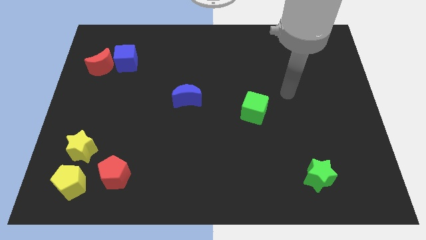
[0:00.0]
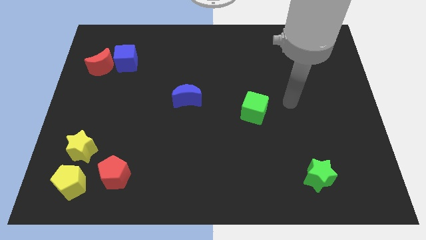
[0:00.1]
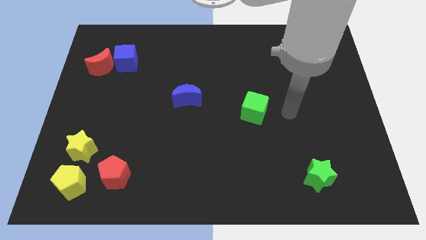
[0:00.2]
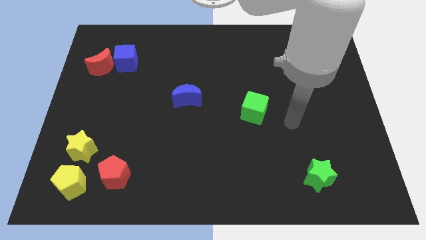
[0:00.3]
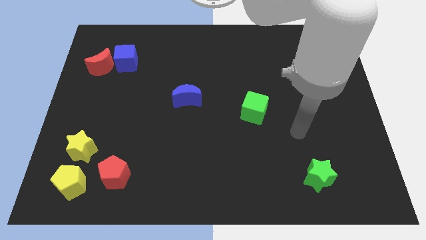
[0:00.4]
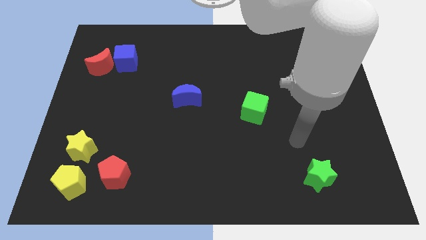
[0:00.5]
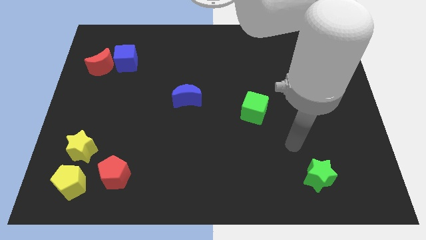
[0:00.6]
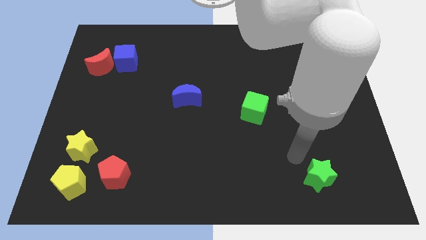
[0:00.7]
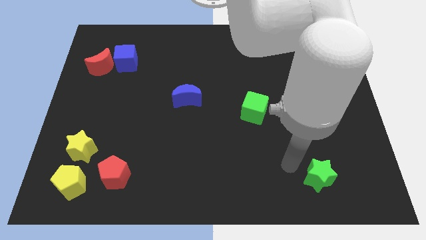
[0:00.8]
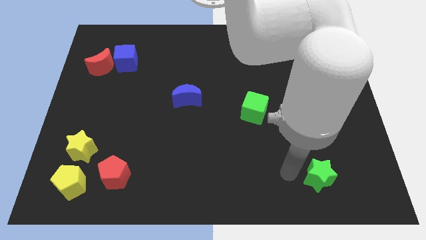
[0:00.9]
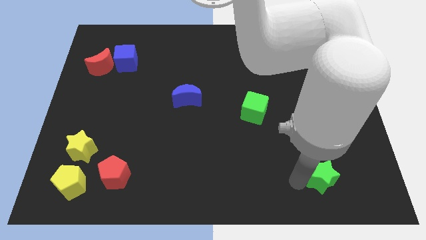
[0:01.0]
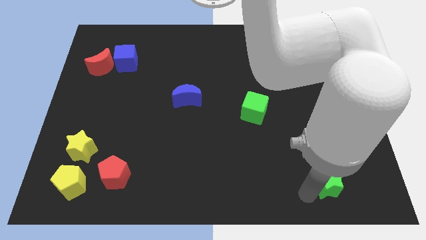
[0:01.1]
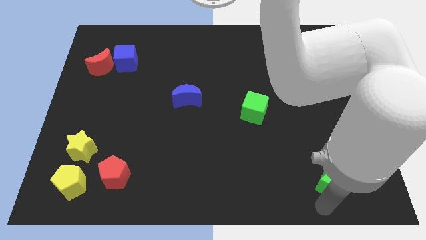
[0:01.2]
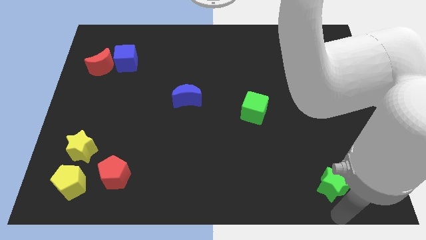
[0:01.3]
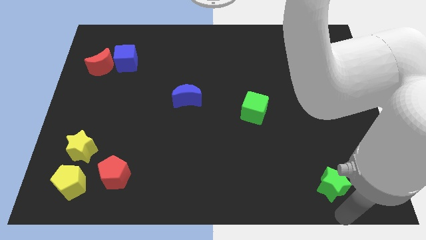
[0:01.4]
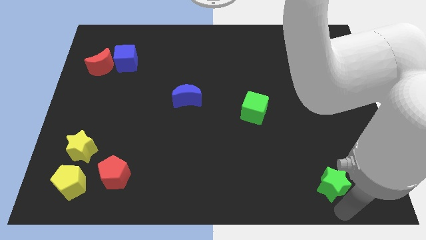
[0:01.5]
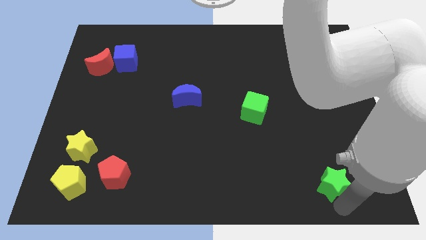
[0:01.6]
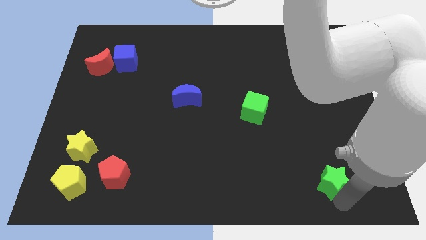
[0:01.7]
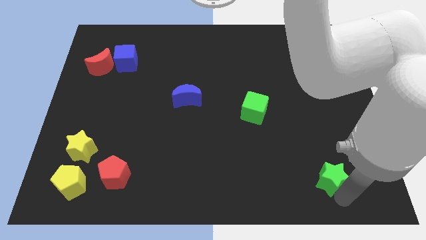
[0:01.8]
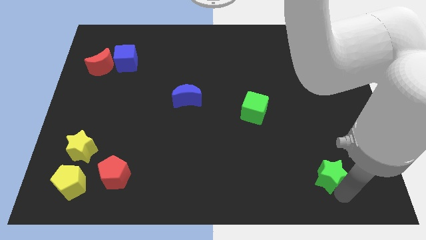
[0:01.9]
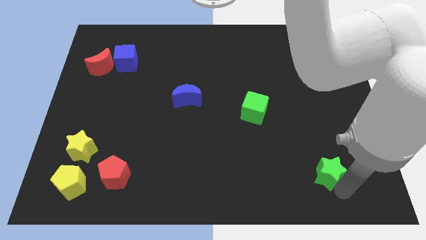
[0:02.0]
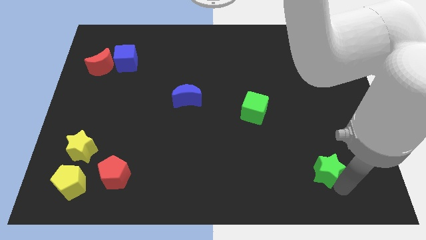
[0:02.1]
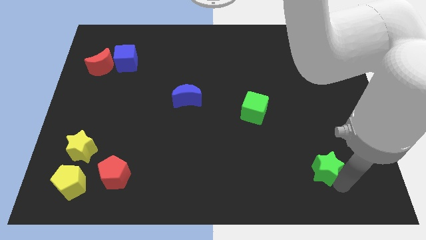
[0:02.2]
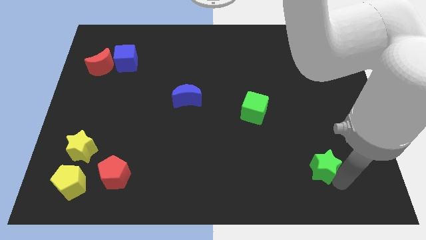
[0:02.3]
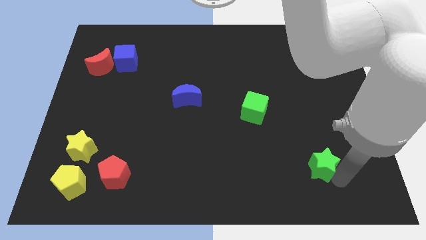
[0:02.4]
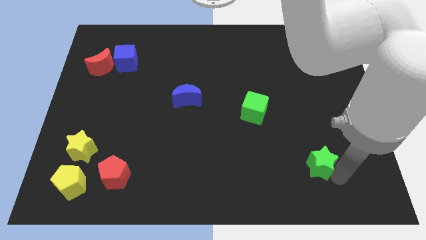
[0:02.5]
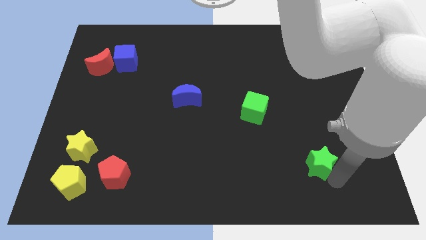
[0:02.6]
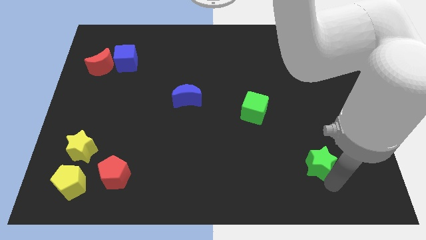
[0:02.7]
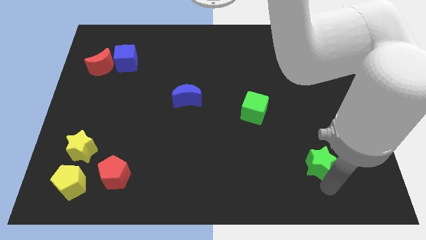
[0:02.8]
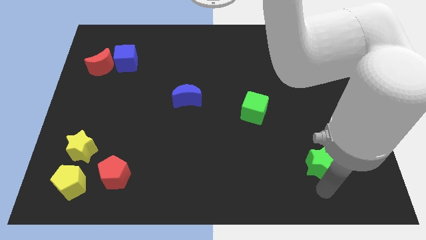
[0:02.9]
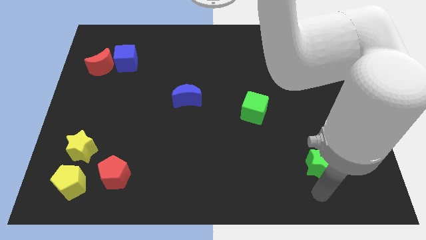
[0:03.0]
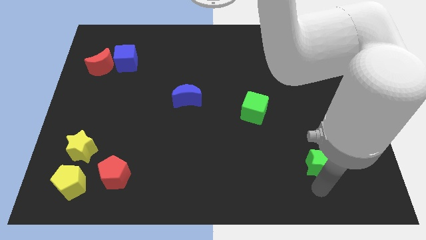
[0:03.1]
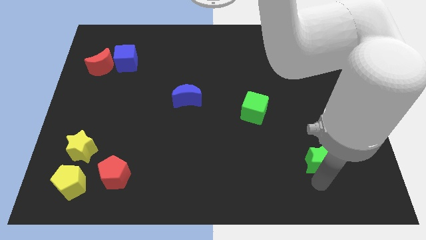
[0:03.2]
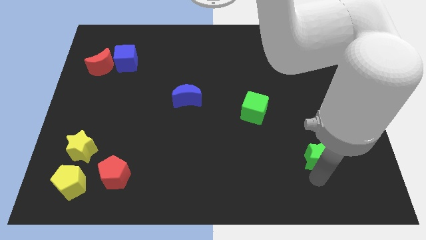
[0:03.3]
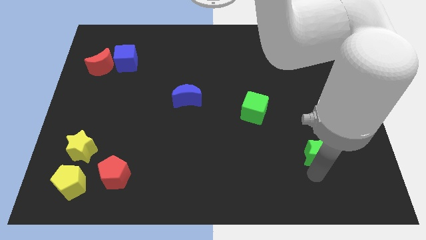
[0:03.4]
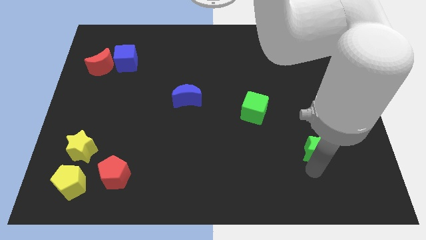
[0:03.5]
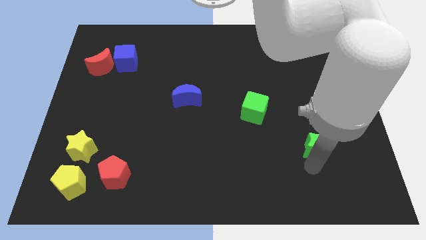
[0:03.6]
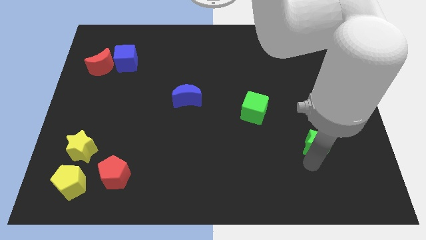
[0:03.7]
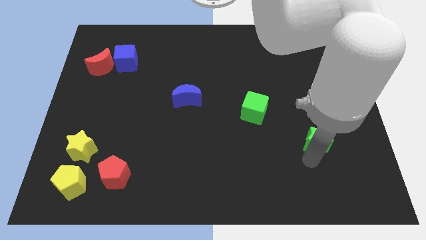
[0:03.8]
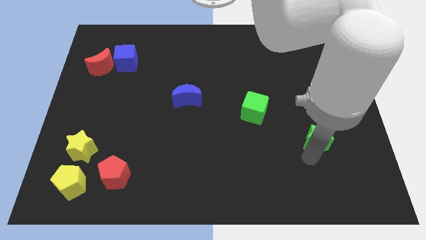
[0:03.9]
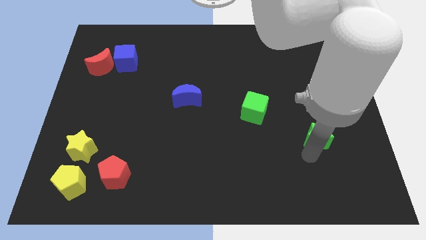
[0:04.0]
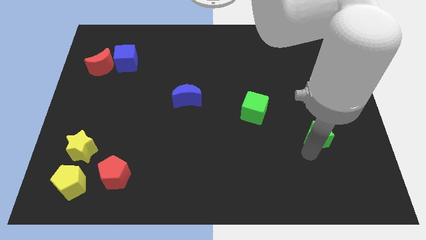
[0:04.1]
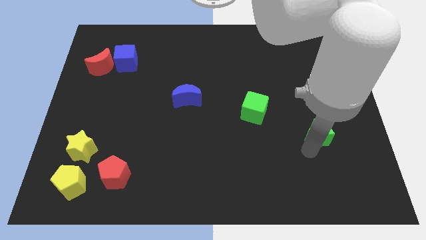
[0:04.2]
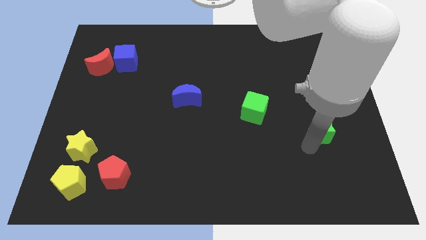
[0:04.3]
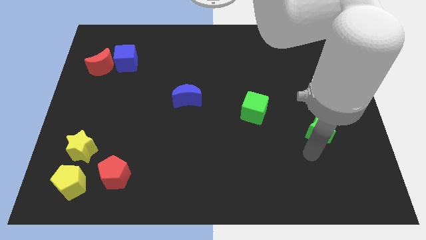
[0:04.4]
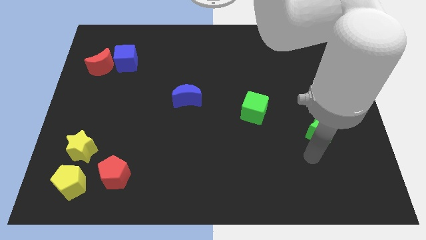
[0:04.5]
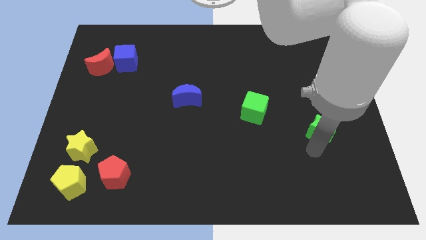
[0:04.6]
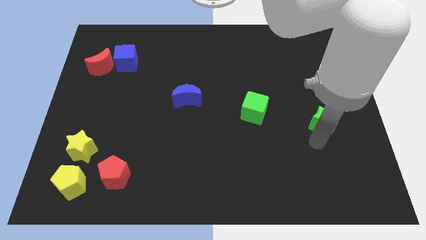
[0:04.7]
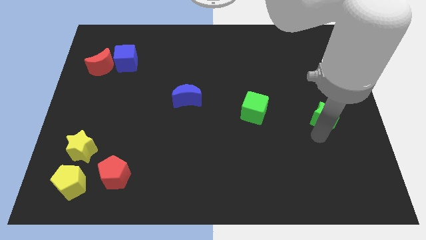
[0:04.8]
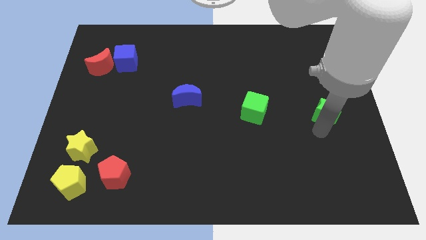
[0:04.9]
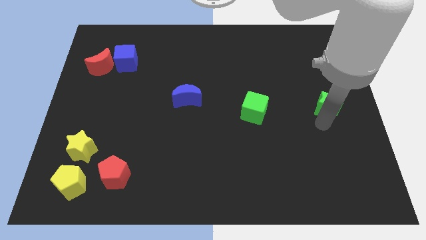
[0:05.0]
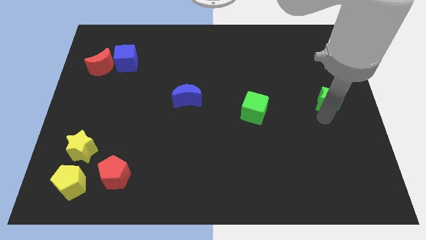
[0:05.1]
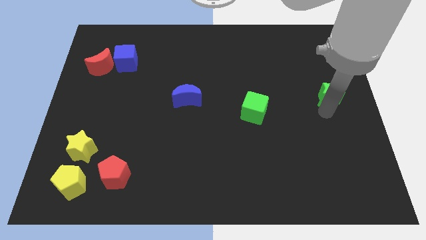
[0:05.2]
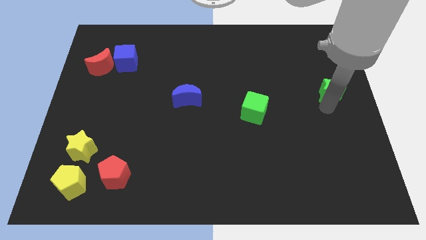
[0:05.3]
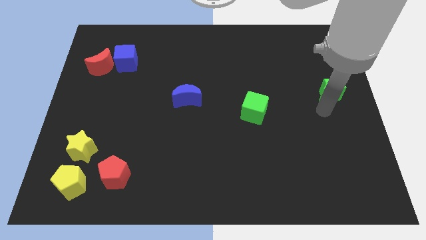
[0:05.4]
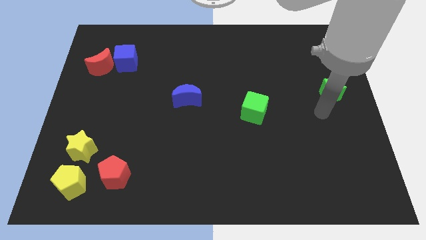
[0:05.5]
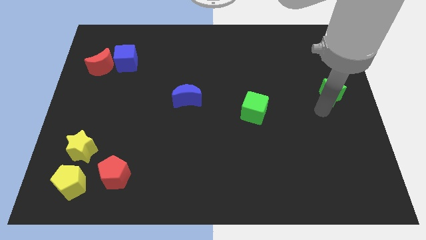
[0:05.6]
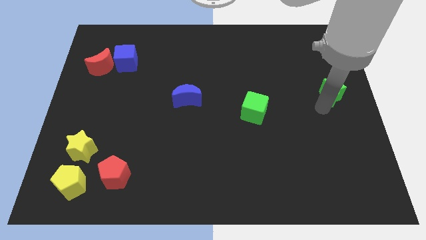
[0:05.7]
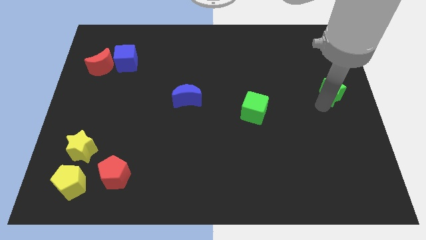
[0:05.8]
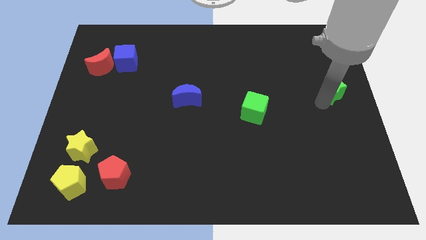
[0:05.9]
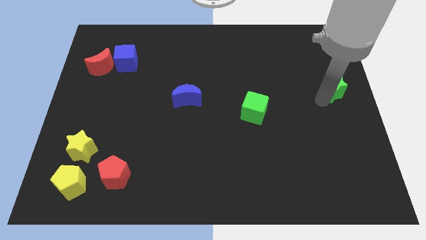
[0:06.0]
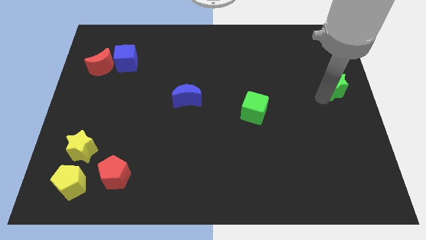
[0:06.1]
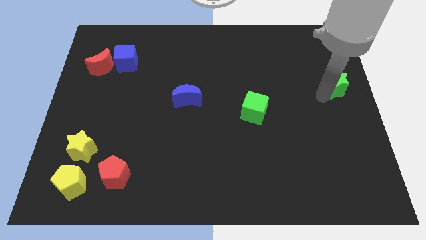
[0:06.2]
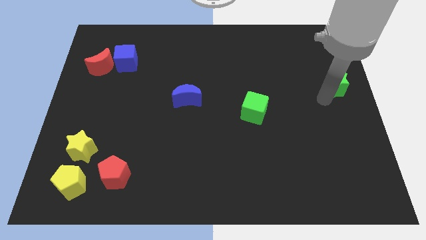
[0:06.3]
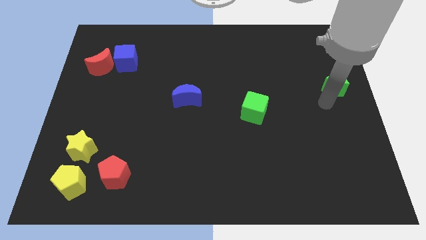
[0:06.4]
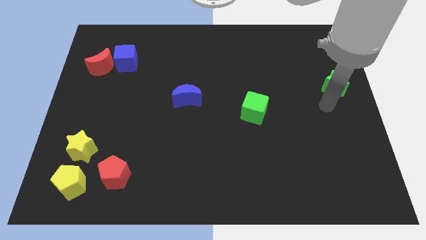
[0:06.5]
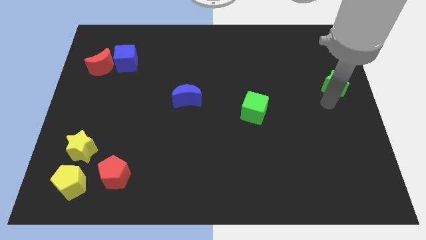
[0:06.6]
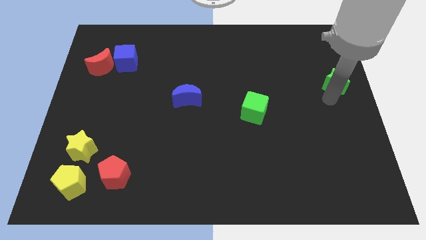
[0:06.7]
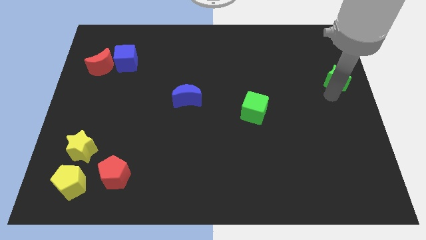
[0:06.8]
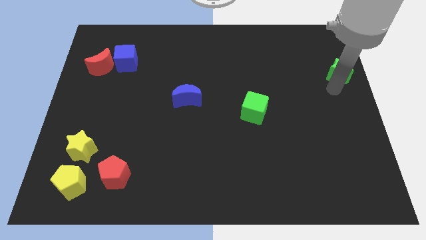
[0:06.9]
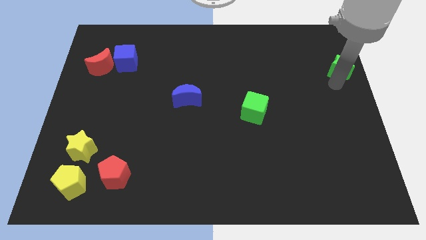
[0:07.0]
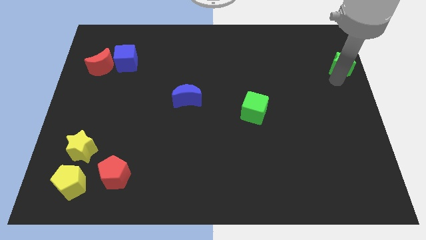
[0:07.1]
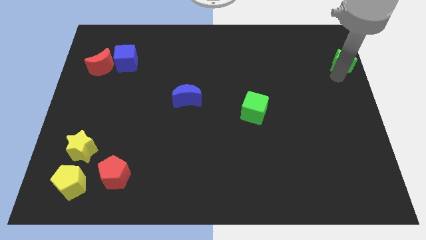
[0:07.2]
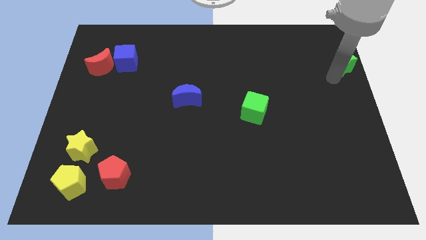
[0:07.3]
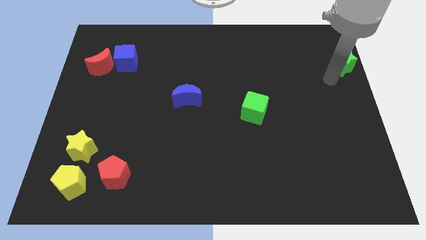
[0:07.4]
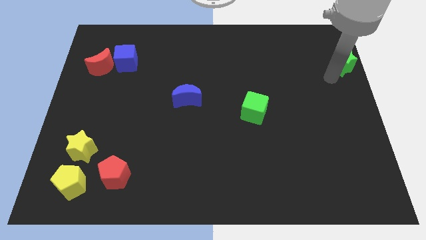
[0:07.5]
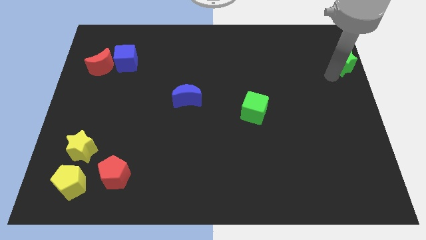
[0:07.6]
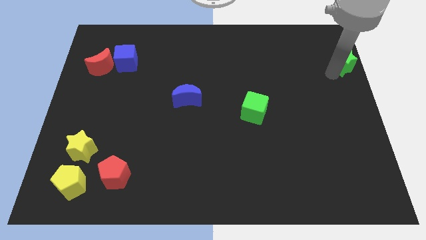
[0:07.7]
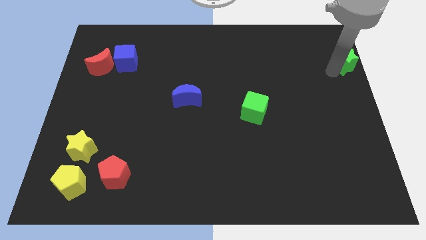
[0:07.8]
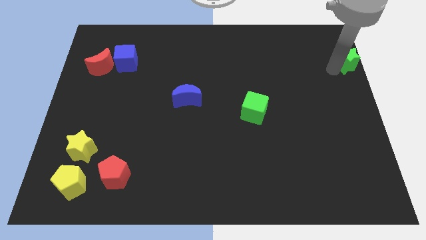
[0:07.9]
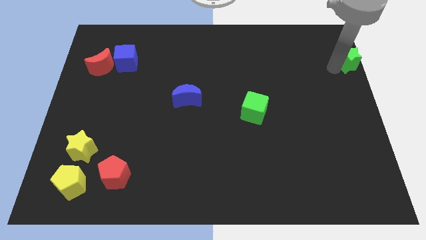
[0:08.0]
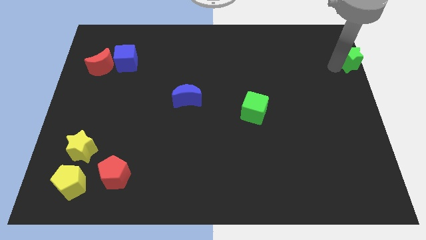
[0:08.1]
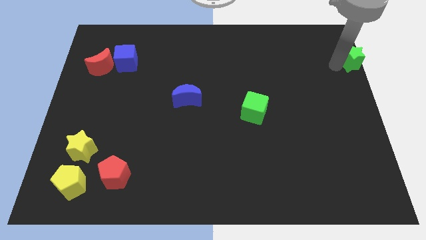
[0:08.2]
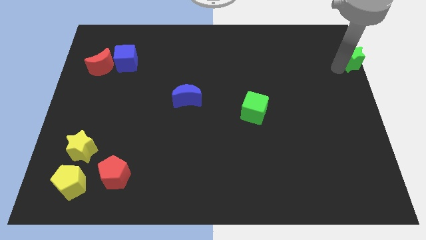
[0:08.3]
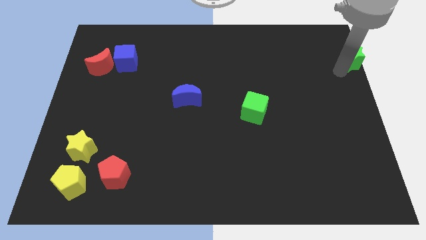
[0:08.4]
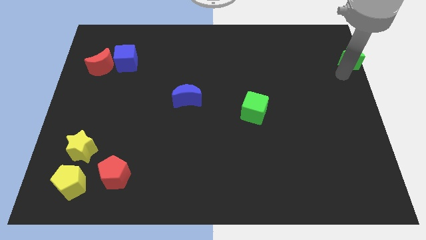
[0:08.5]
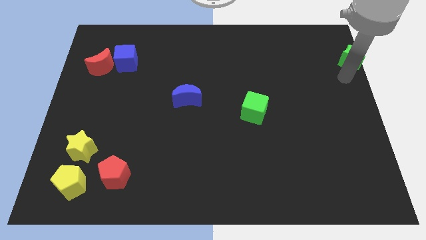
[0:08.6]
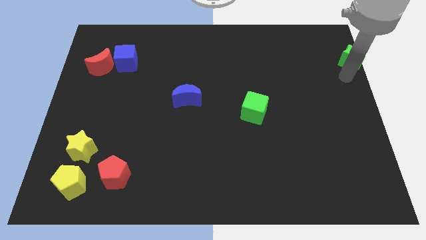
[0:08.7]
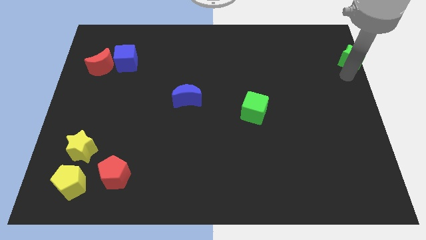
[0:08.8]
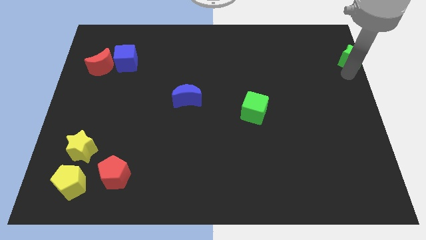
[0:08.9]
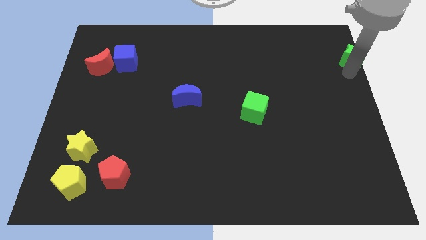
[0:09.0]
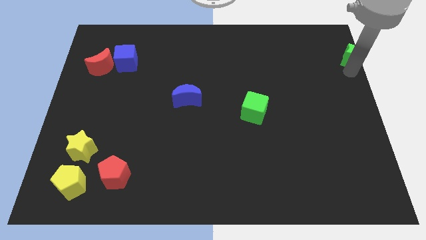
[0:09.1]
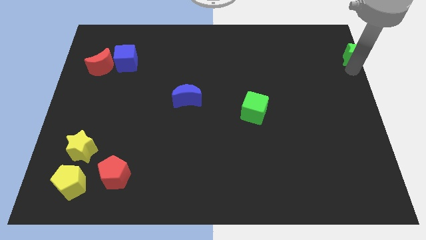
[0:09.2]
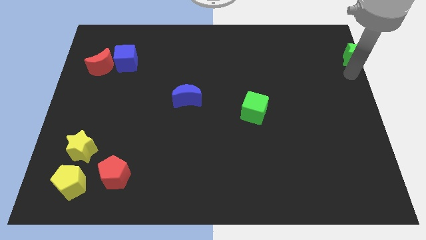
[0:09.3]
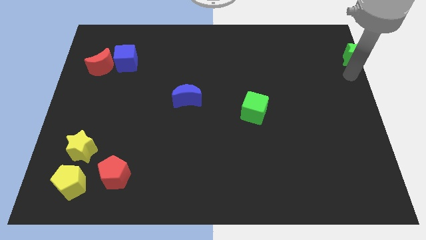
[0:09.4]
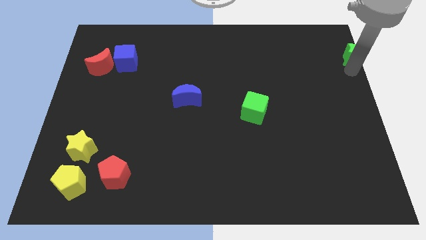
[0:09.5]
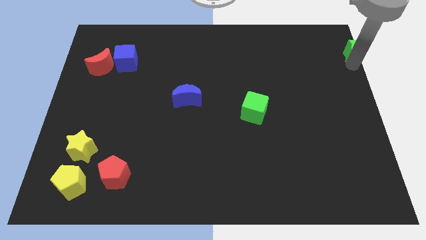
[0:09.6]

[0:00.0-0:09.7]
put the green star to the top right of the board
